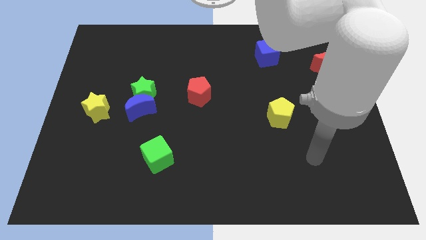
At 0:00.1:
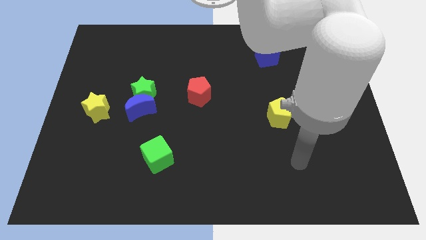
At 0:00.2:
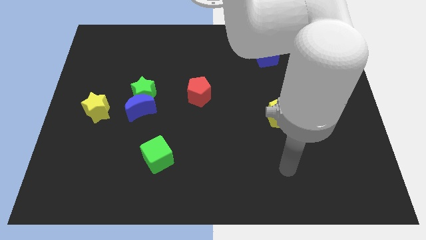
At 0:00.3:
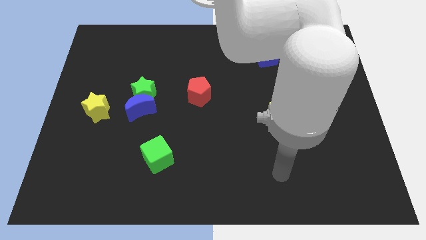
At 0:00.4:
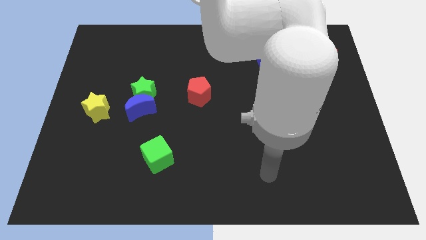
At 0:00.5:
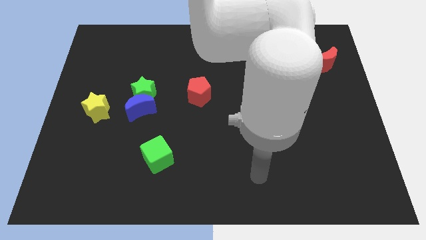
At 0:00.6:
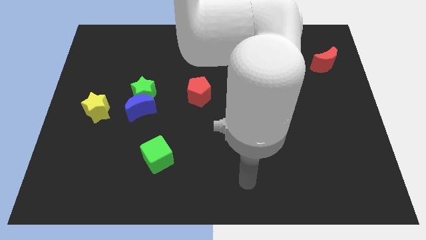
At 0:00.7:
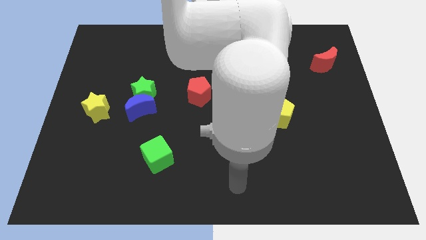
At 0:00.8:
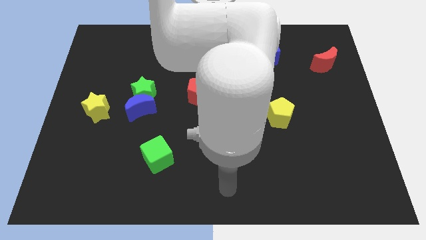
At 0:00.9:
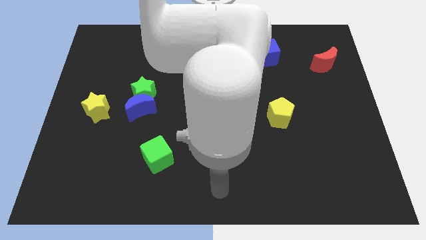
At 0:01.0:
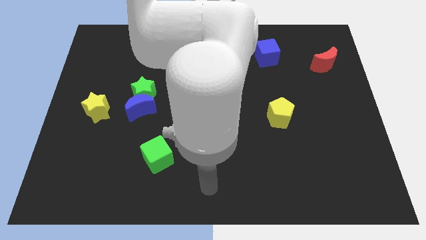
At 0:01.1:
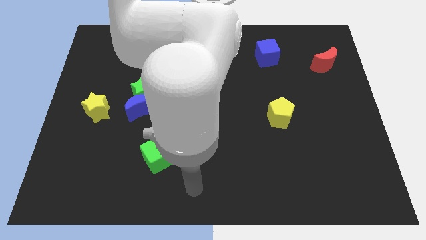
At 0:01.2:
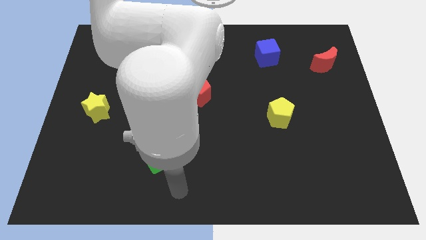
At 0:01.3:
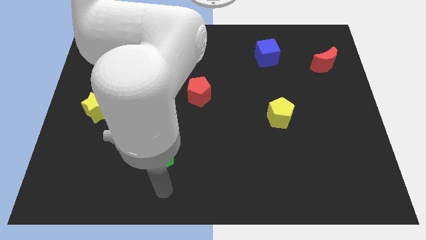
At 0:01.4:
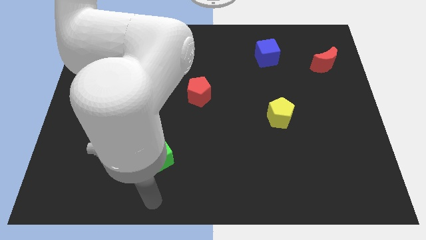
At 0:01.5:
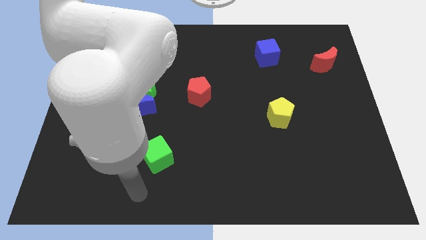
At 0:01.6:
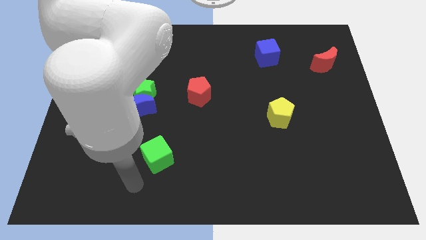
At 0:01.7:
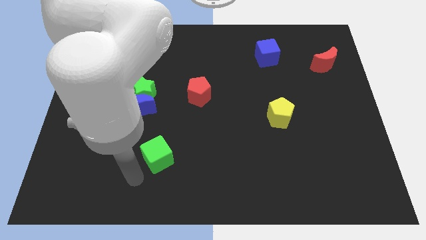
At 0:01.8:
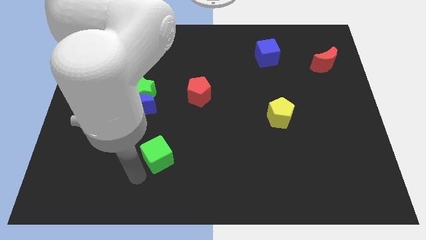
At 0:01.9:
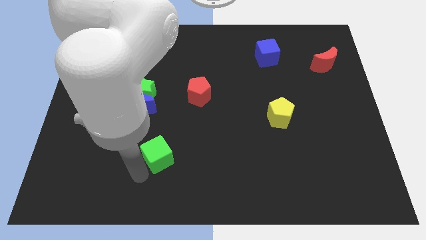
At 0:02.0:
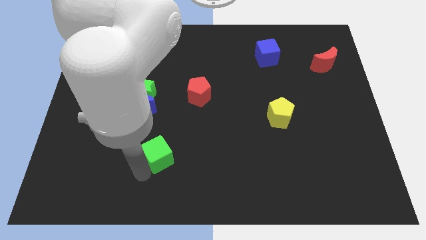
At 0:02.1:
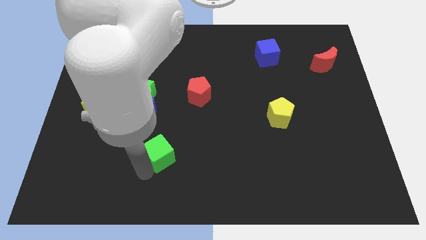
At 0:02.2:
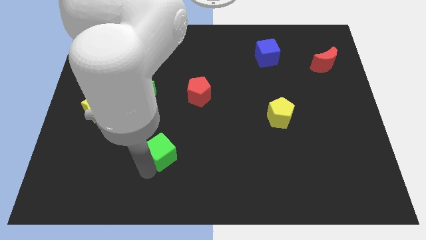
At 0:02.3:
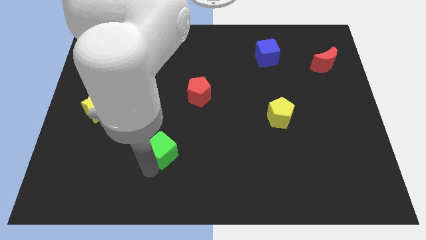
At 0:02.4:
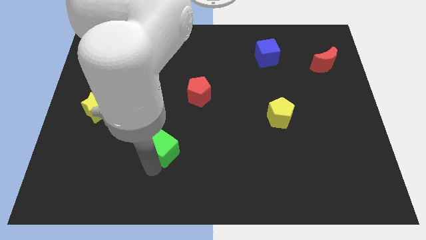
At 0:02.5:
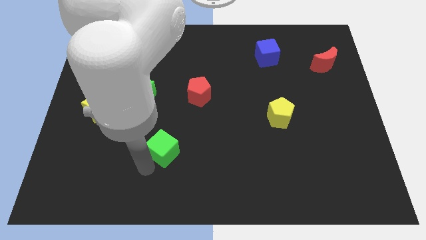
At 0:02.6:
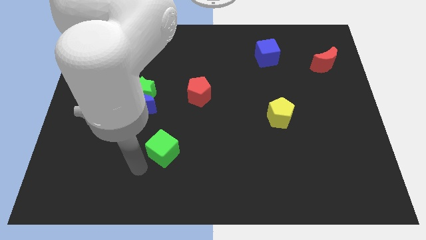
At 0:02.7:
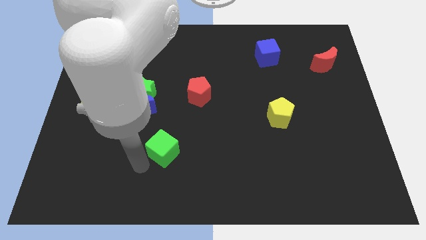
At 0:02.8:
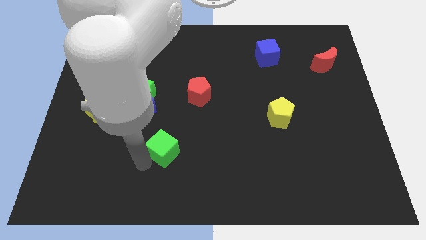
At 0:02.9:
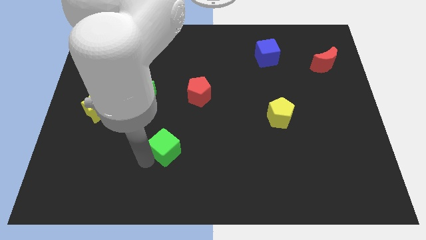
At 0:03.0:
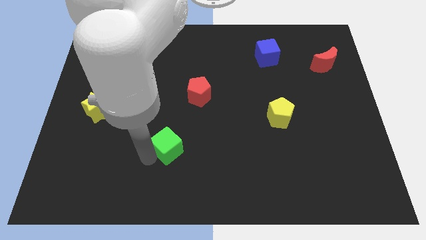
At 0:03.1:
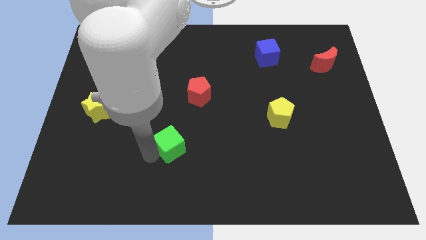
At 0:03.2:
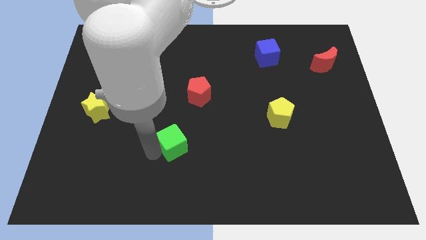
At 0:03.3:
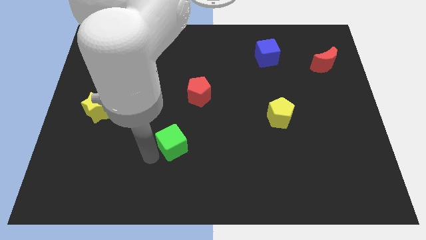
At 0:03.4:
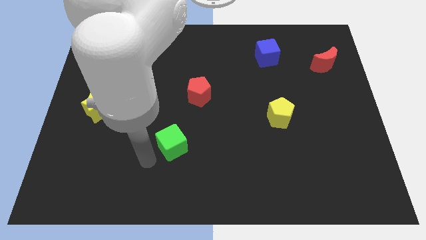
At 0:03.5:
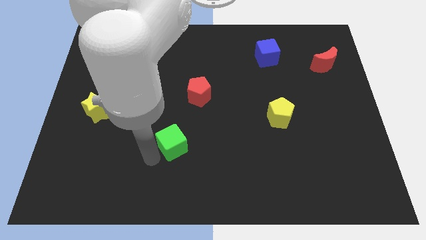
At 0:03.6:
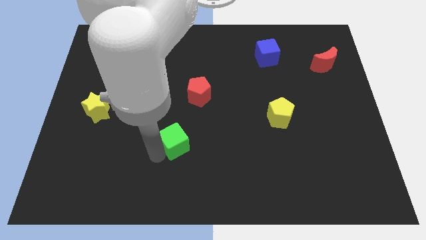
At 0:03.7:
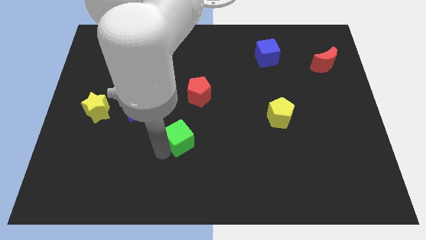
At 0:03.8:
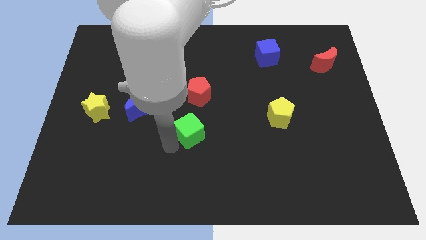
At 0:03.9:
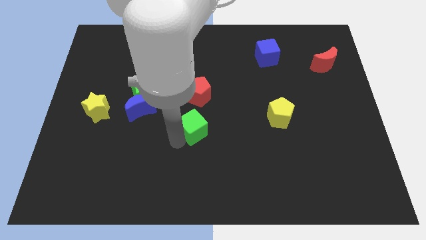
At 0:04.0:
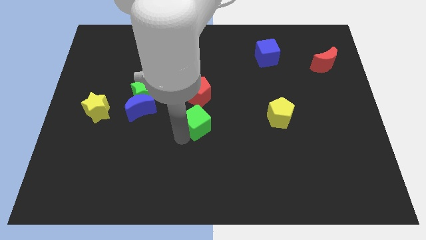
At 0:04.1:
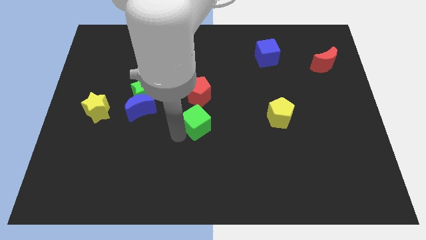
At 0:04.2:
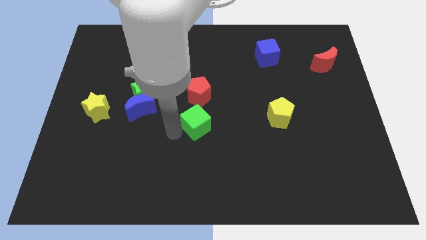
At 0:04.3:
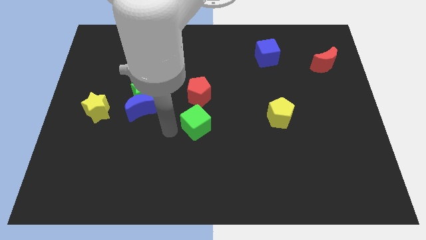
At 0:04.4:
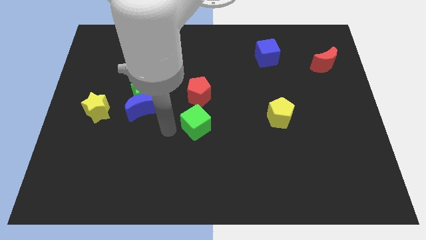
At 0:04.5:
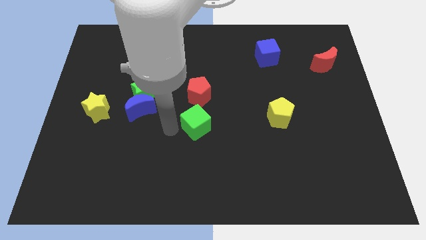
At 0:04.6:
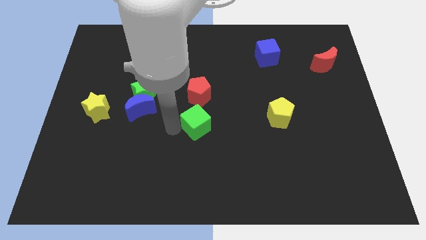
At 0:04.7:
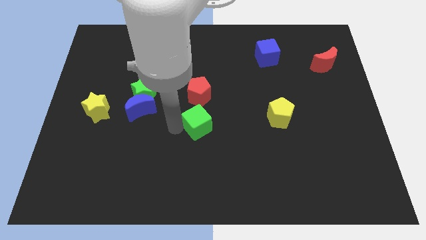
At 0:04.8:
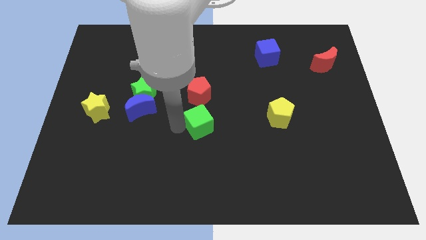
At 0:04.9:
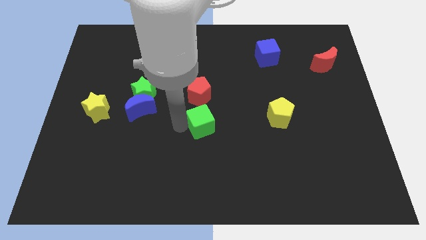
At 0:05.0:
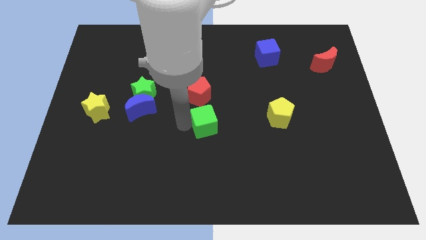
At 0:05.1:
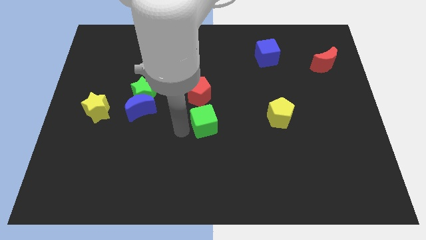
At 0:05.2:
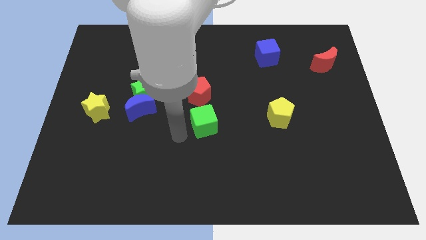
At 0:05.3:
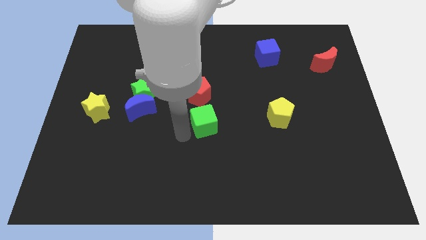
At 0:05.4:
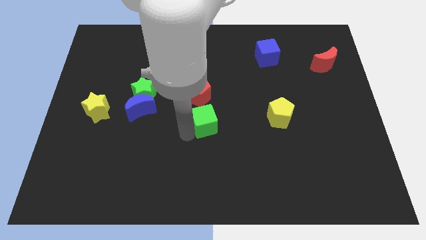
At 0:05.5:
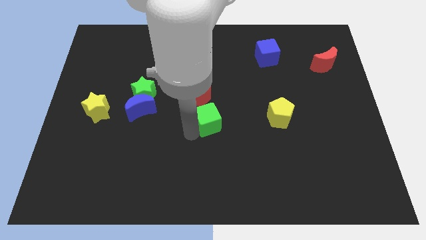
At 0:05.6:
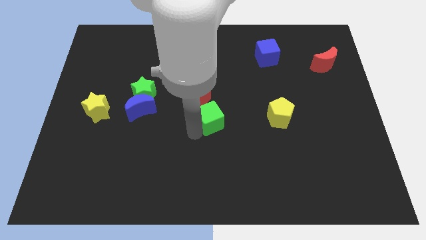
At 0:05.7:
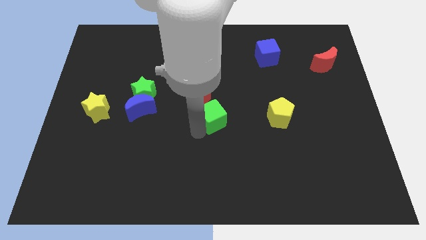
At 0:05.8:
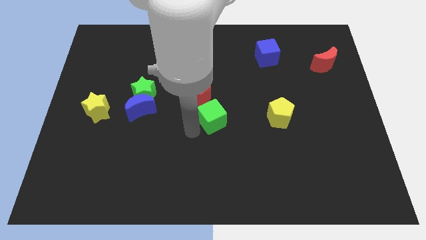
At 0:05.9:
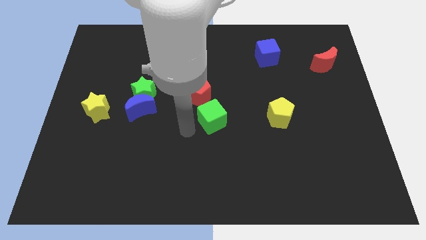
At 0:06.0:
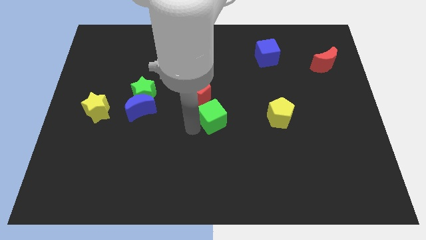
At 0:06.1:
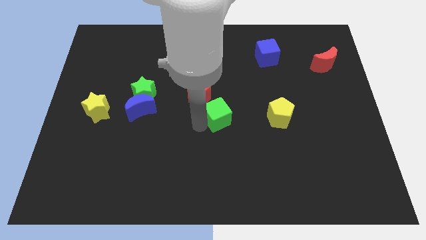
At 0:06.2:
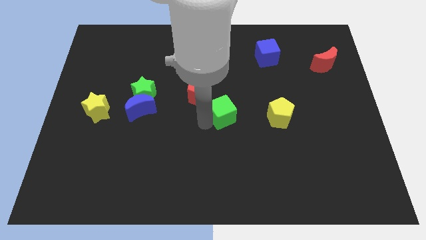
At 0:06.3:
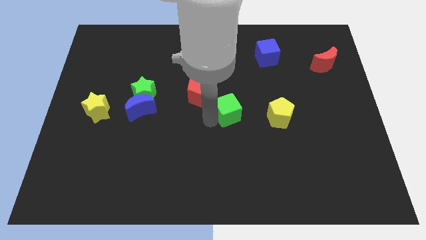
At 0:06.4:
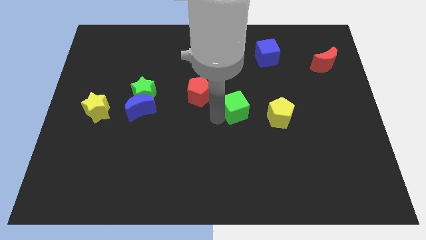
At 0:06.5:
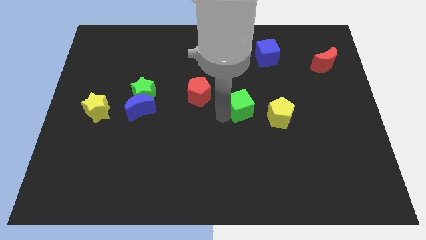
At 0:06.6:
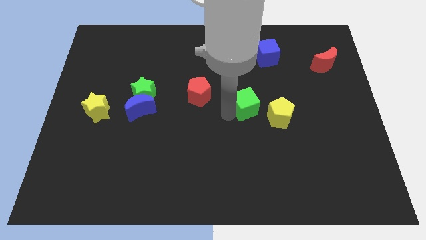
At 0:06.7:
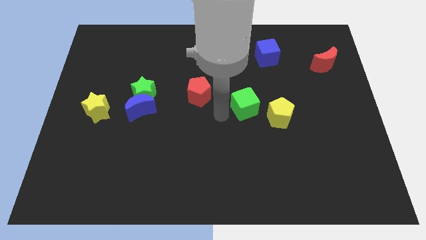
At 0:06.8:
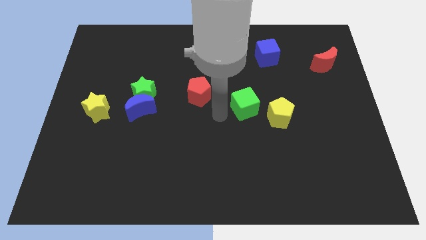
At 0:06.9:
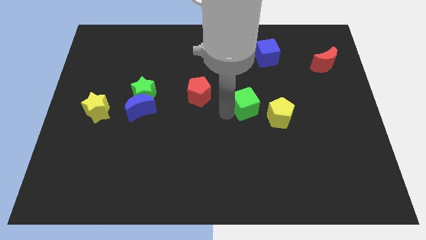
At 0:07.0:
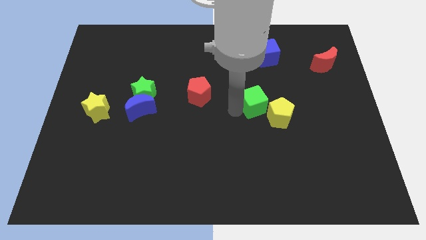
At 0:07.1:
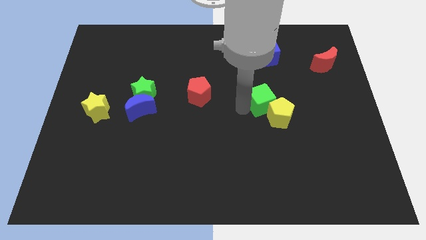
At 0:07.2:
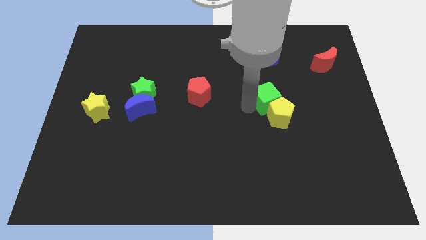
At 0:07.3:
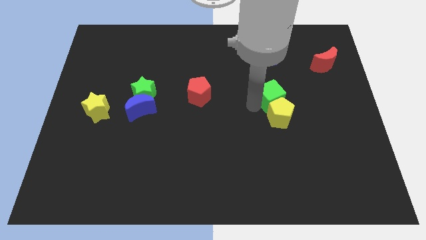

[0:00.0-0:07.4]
move the green cube to the top right side of the yellow pentagon

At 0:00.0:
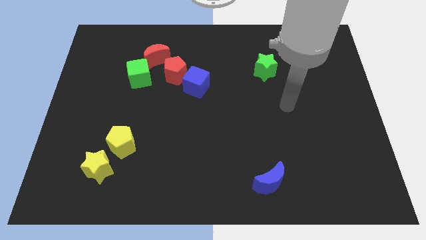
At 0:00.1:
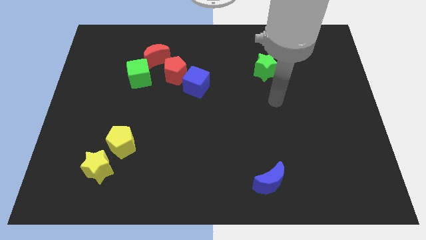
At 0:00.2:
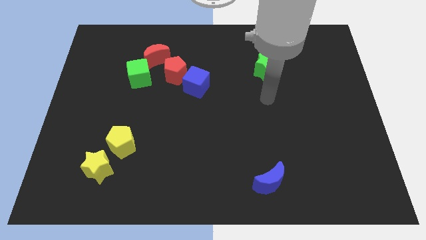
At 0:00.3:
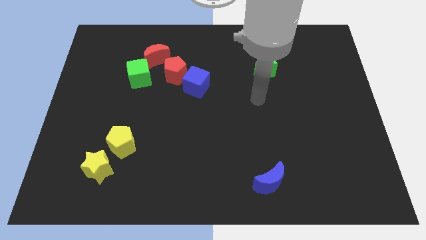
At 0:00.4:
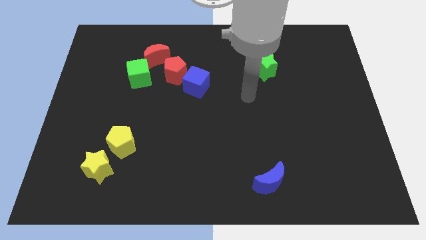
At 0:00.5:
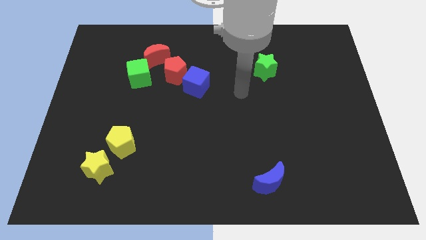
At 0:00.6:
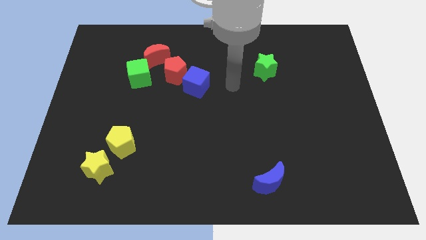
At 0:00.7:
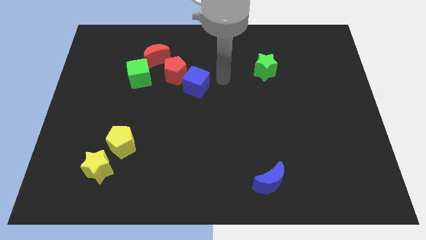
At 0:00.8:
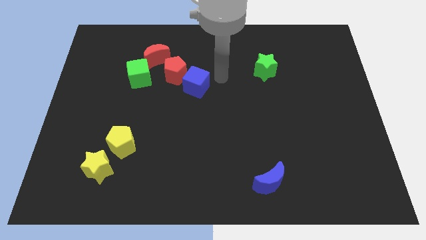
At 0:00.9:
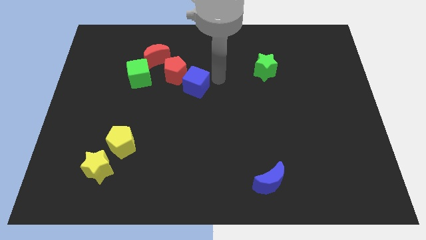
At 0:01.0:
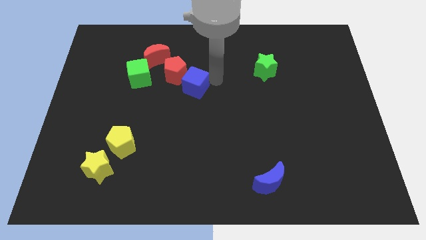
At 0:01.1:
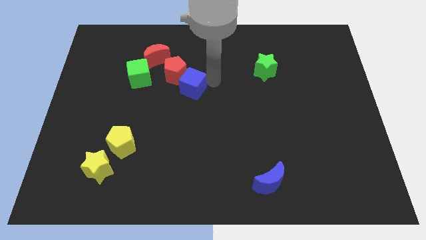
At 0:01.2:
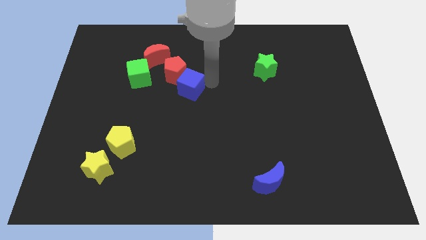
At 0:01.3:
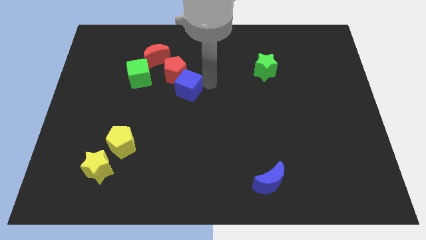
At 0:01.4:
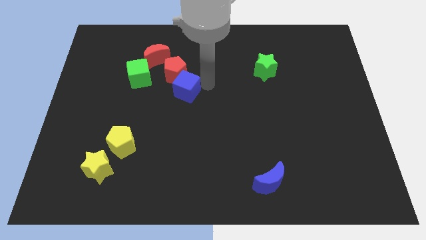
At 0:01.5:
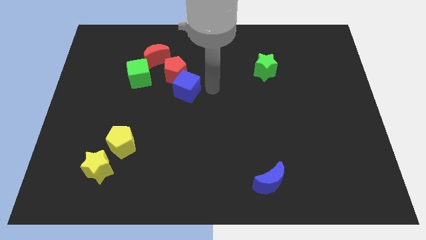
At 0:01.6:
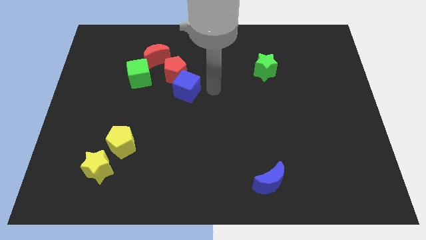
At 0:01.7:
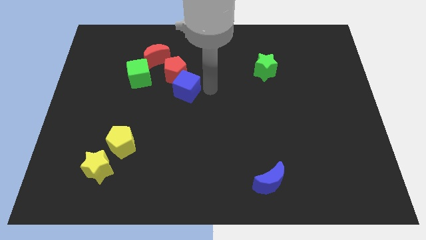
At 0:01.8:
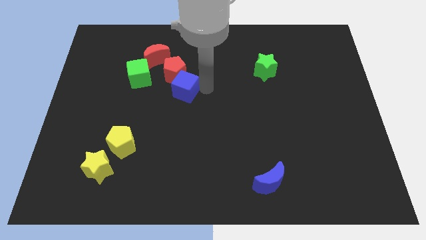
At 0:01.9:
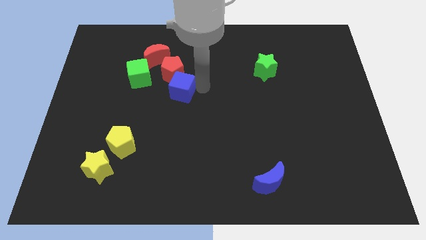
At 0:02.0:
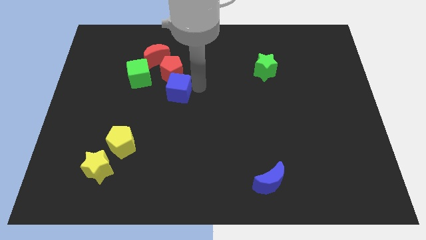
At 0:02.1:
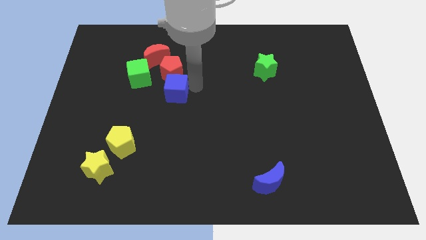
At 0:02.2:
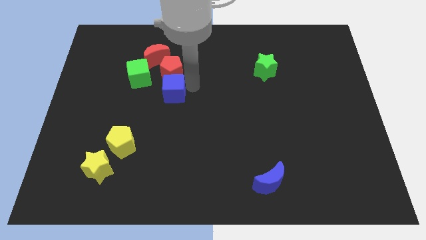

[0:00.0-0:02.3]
put the blue cube to the bottom left of the red pentagon
